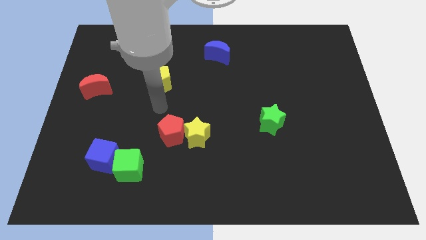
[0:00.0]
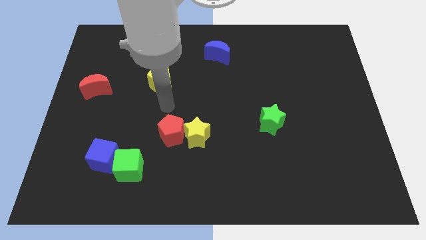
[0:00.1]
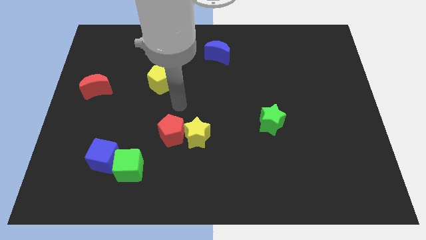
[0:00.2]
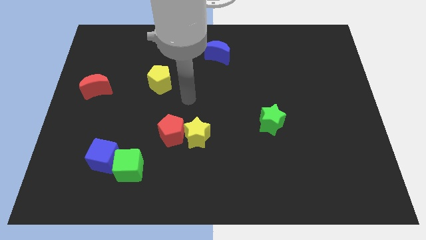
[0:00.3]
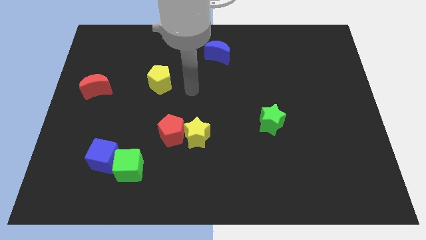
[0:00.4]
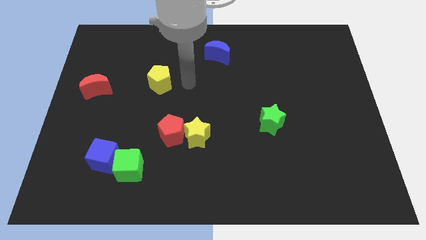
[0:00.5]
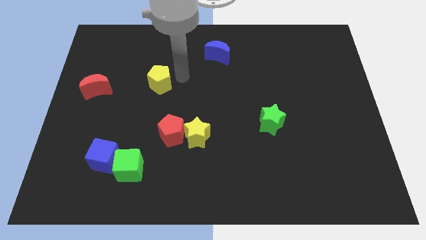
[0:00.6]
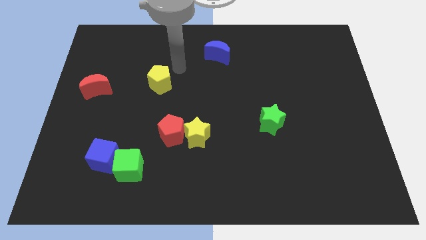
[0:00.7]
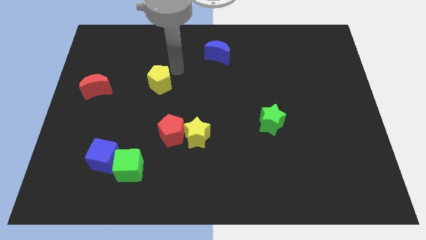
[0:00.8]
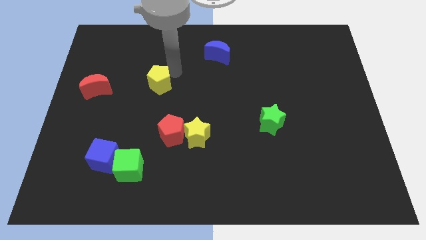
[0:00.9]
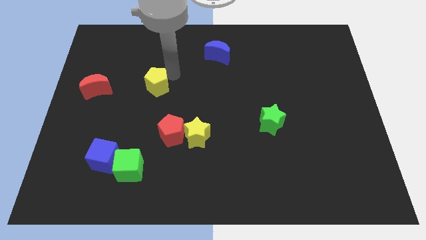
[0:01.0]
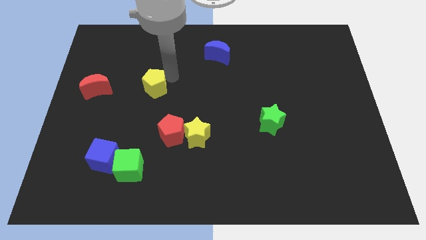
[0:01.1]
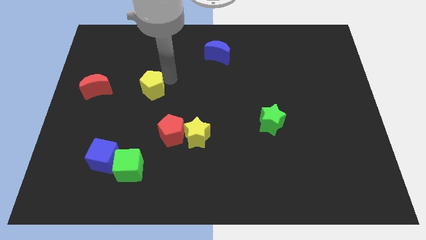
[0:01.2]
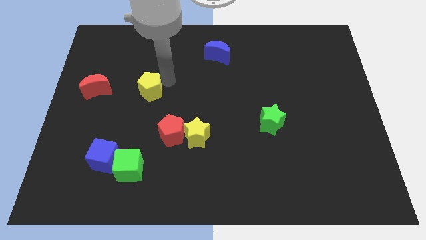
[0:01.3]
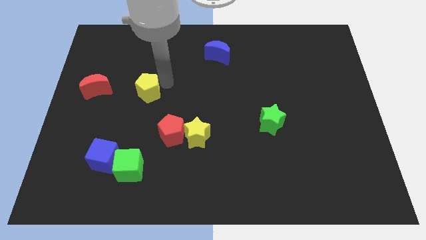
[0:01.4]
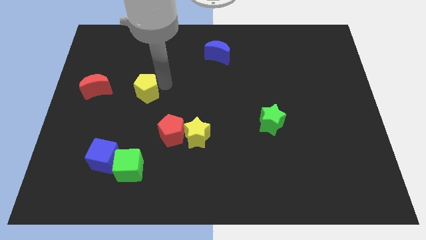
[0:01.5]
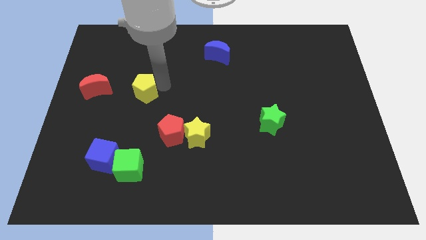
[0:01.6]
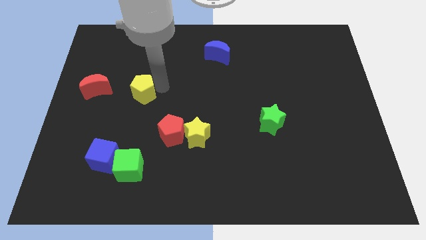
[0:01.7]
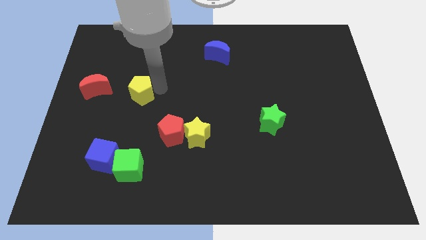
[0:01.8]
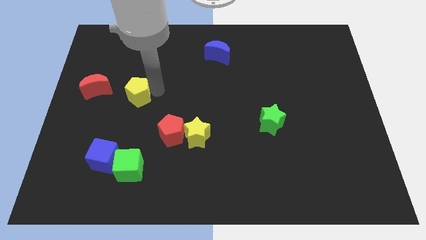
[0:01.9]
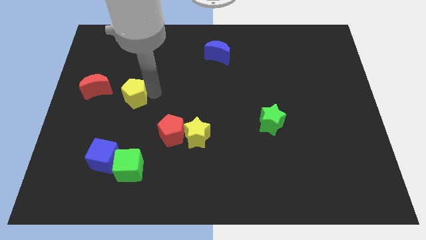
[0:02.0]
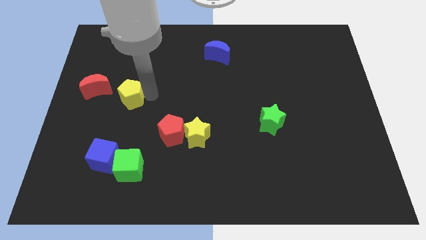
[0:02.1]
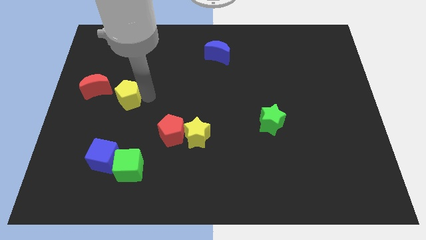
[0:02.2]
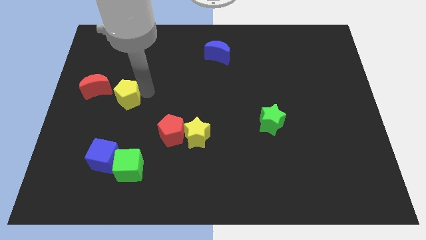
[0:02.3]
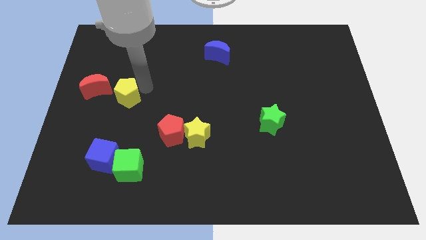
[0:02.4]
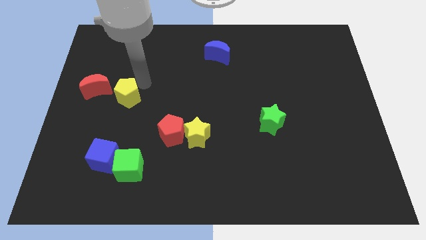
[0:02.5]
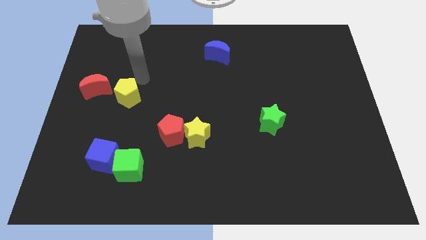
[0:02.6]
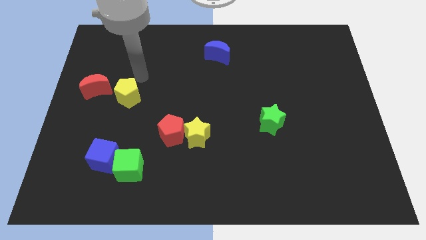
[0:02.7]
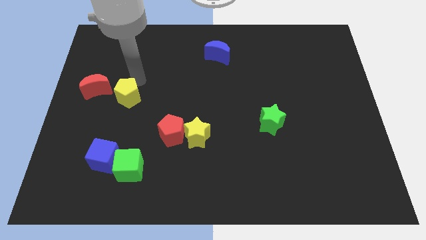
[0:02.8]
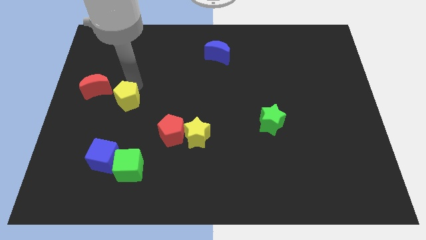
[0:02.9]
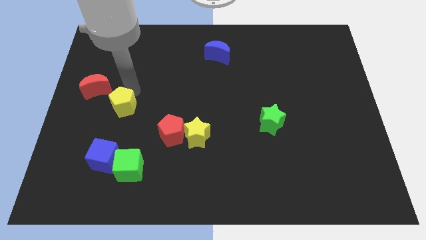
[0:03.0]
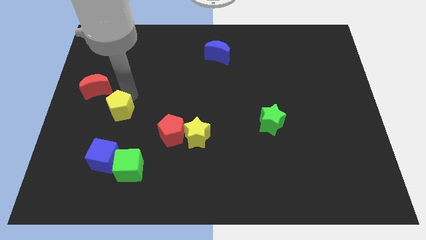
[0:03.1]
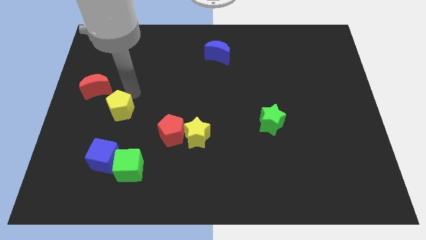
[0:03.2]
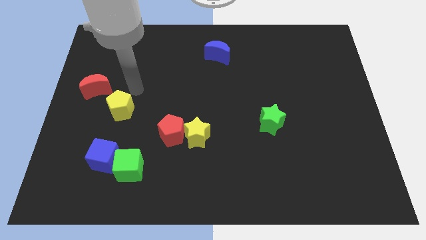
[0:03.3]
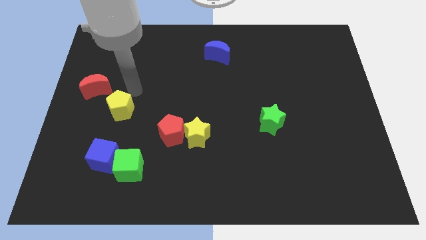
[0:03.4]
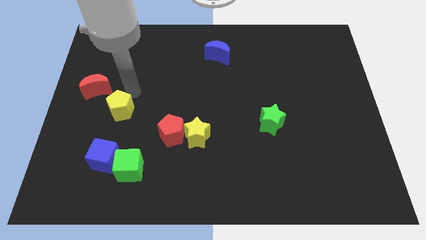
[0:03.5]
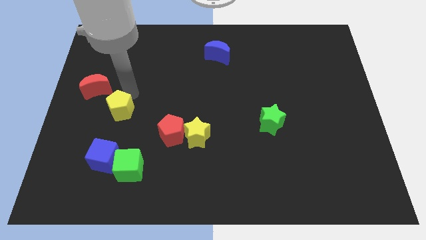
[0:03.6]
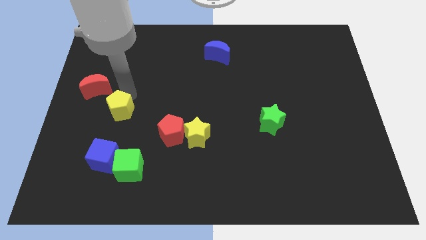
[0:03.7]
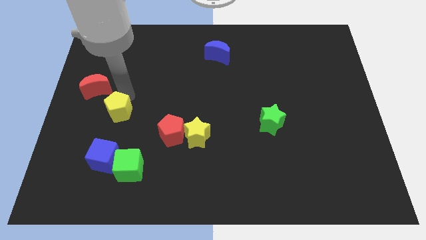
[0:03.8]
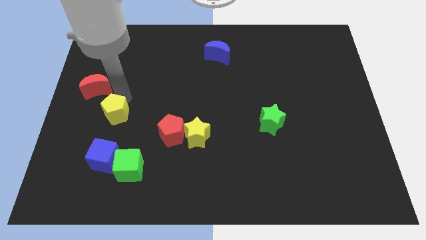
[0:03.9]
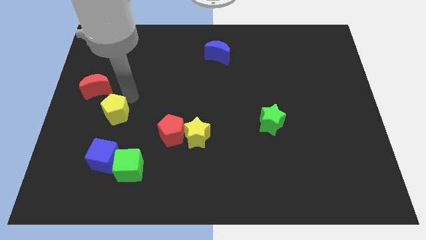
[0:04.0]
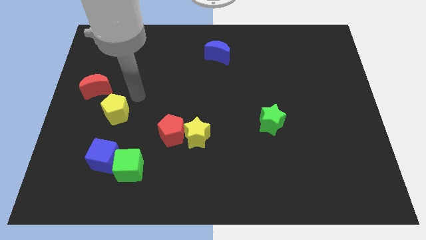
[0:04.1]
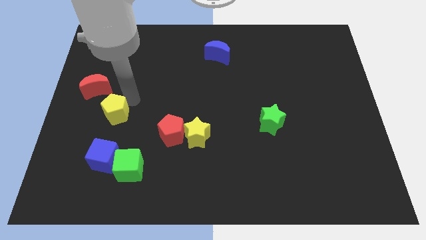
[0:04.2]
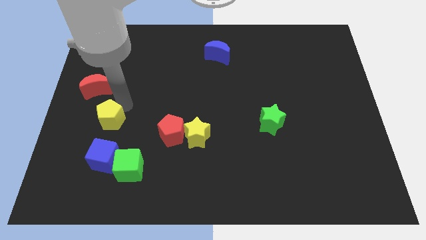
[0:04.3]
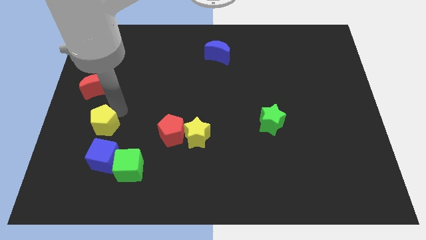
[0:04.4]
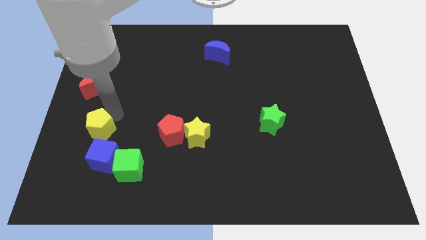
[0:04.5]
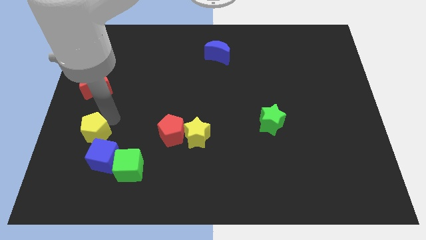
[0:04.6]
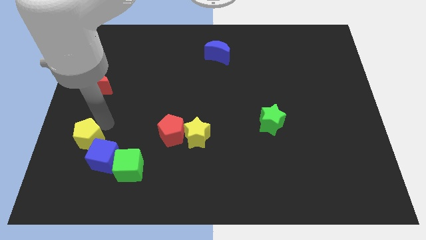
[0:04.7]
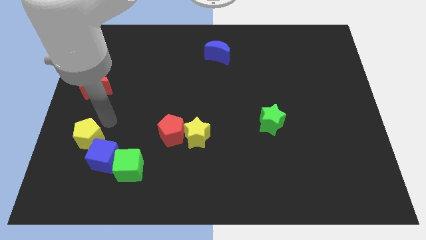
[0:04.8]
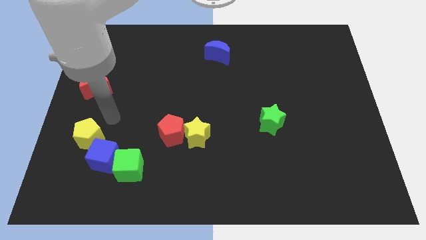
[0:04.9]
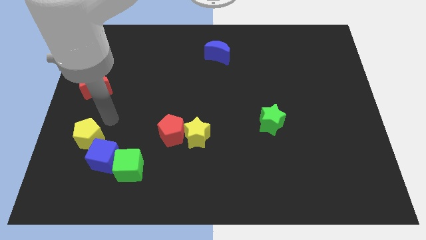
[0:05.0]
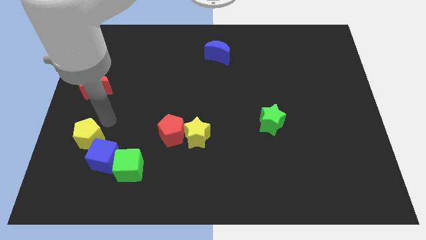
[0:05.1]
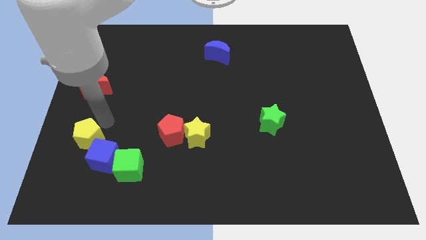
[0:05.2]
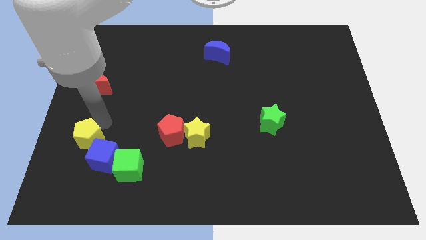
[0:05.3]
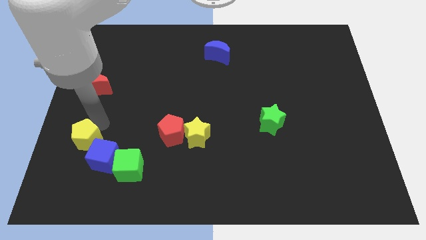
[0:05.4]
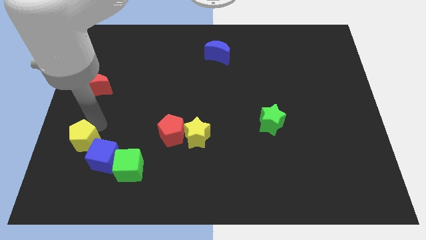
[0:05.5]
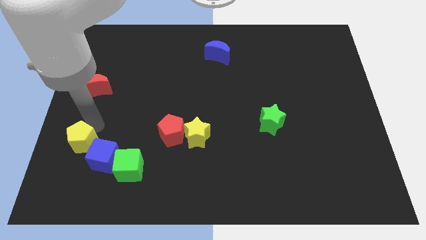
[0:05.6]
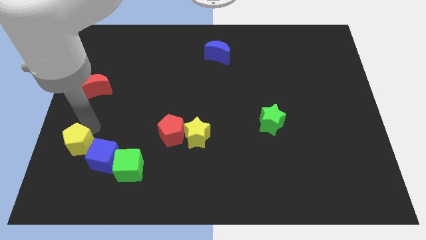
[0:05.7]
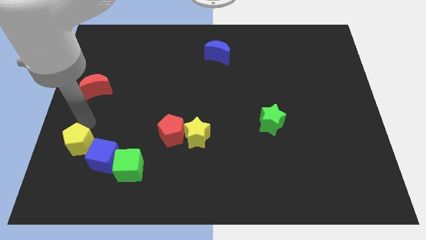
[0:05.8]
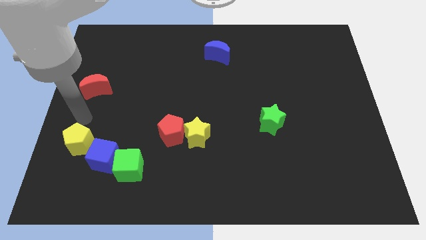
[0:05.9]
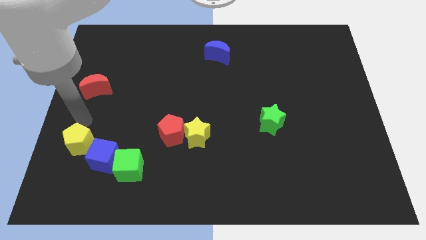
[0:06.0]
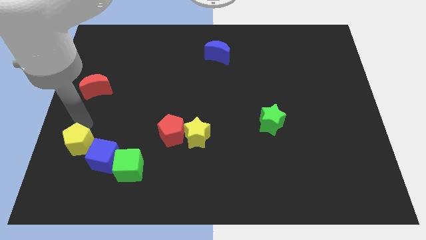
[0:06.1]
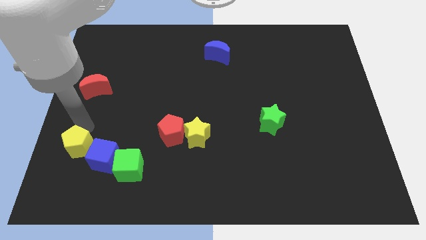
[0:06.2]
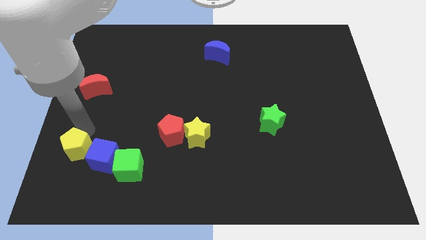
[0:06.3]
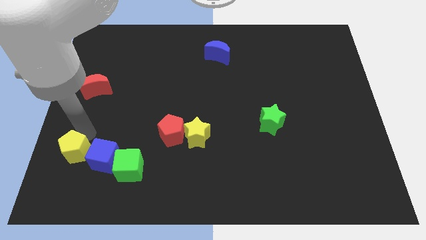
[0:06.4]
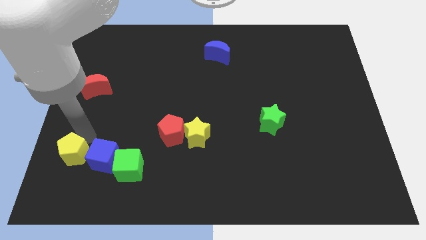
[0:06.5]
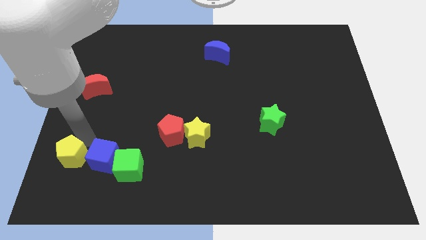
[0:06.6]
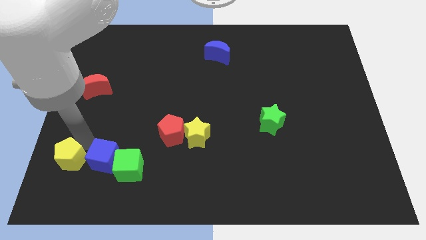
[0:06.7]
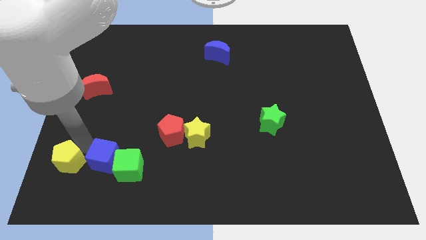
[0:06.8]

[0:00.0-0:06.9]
put the yellow pentagon to the bottom left of the blue cube
